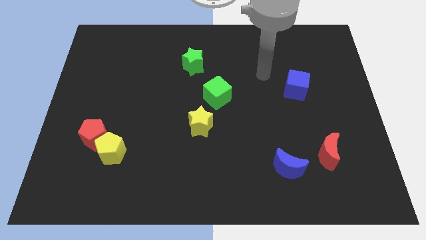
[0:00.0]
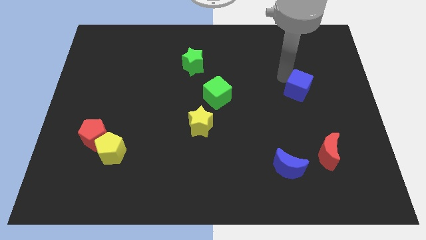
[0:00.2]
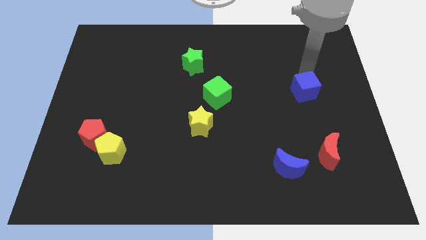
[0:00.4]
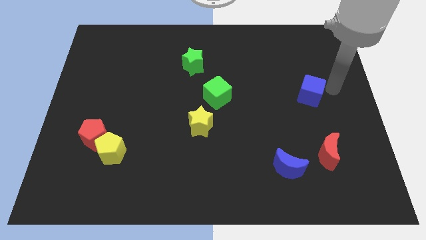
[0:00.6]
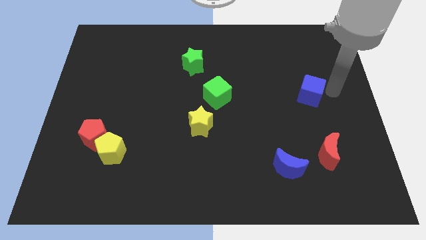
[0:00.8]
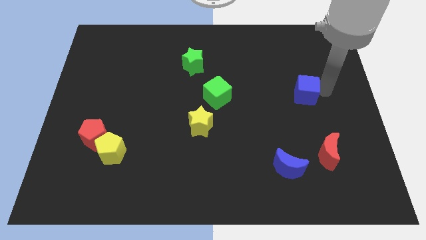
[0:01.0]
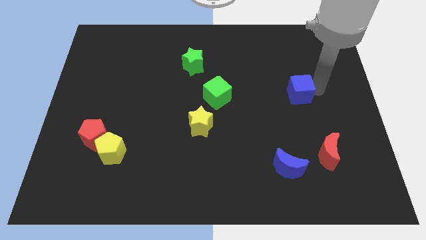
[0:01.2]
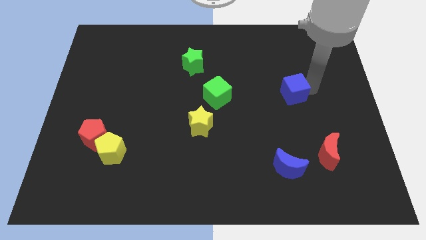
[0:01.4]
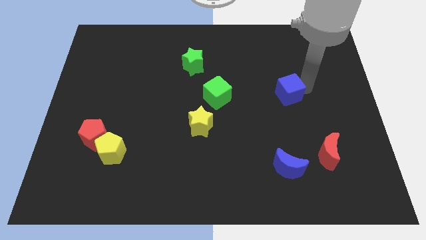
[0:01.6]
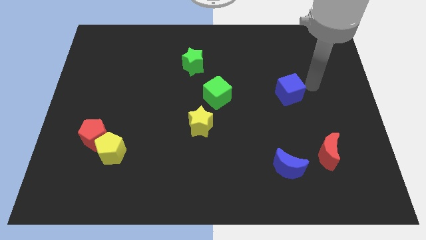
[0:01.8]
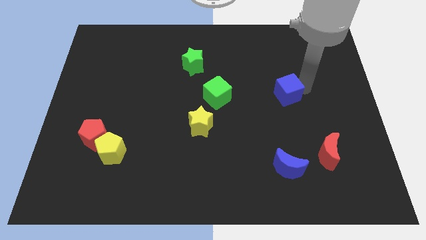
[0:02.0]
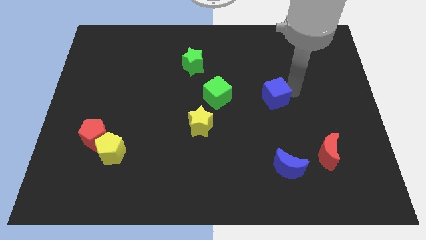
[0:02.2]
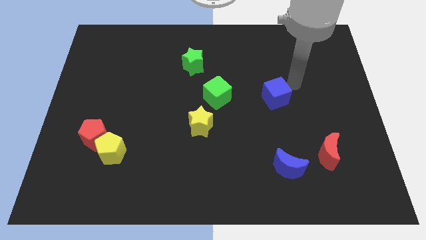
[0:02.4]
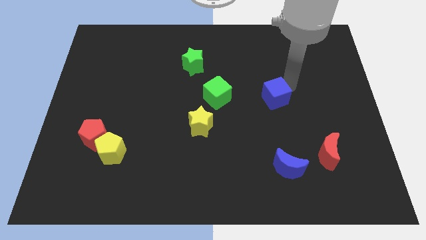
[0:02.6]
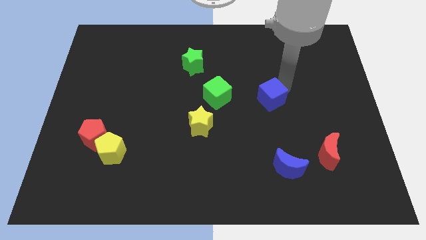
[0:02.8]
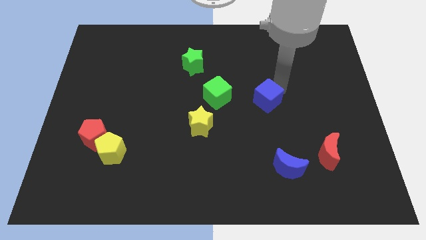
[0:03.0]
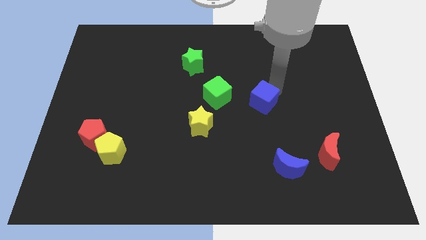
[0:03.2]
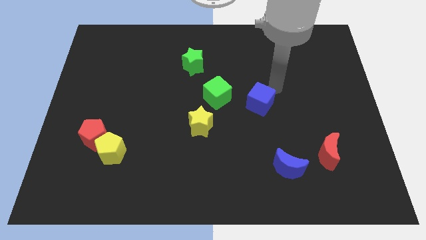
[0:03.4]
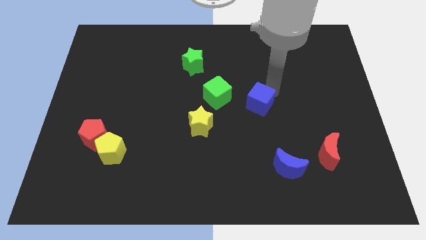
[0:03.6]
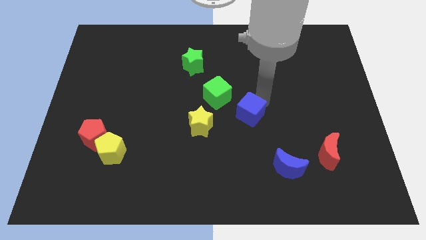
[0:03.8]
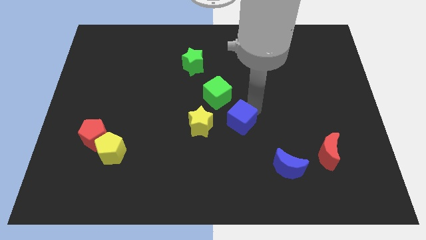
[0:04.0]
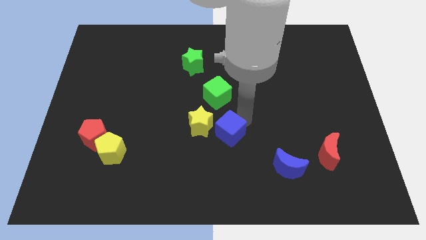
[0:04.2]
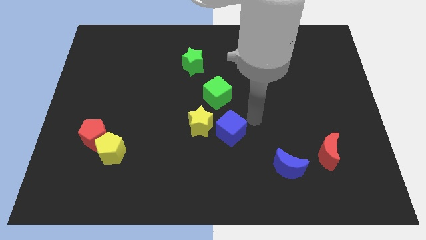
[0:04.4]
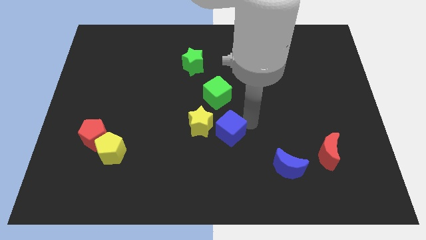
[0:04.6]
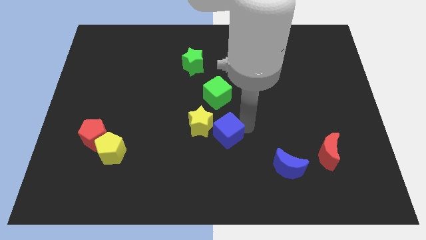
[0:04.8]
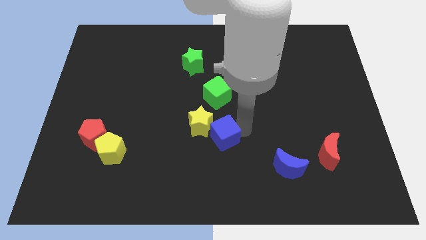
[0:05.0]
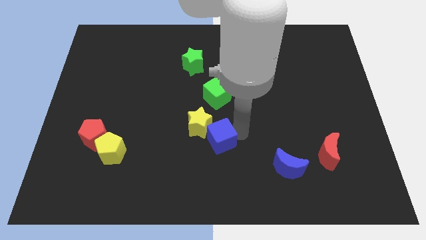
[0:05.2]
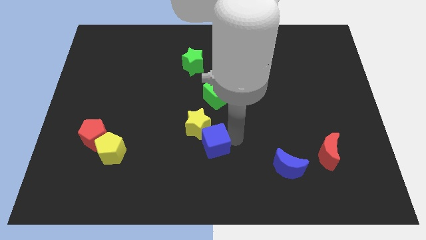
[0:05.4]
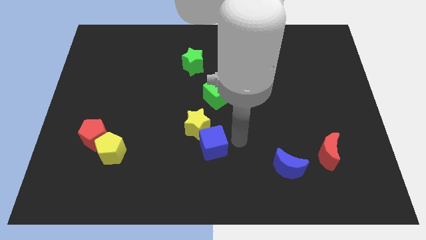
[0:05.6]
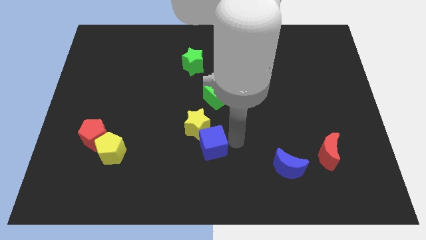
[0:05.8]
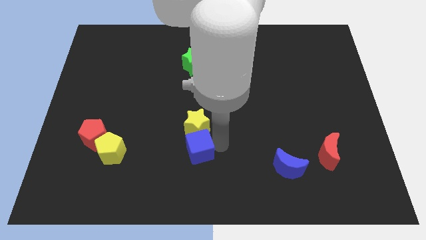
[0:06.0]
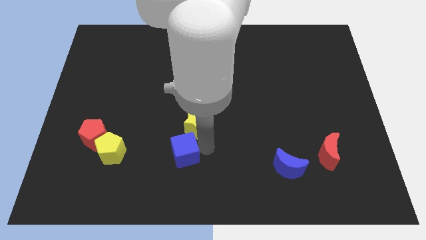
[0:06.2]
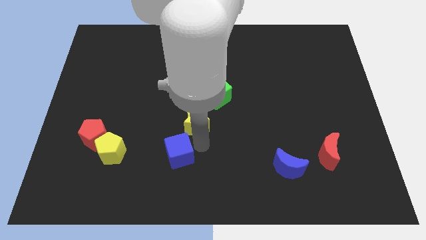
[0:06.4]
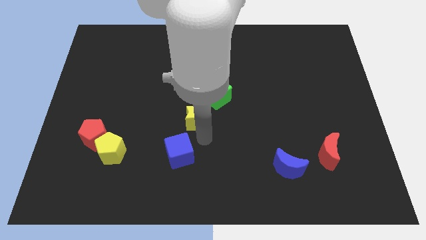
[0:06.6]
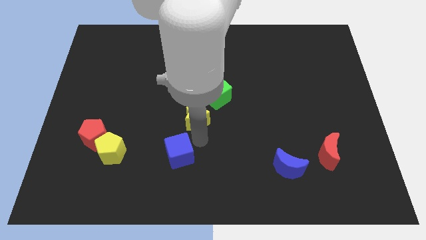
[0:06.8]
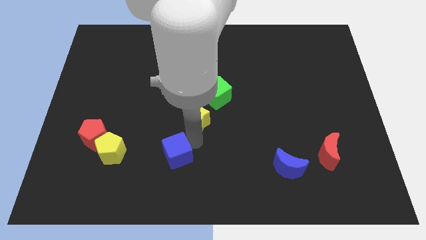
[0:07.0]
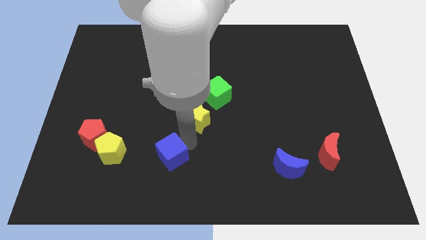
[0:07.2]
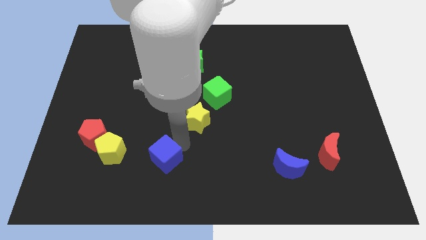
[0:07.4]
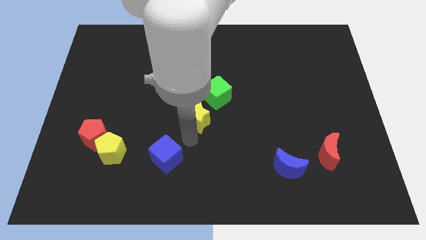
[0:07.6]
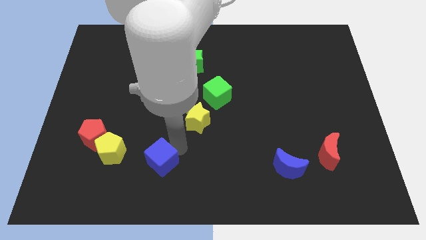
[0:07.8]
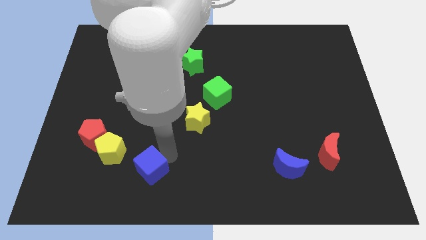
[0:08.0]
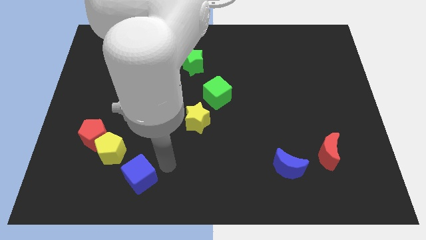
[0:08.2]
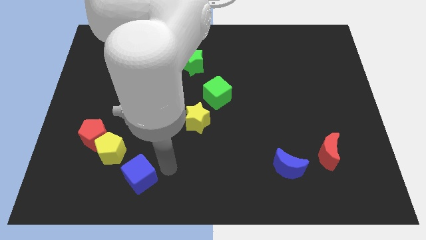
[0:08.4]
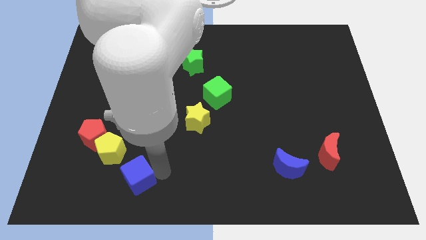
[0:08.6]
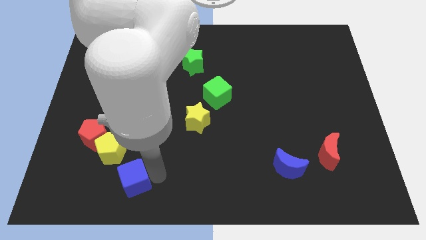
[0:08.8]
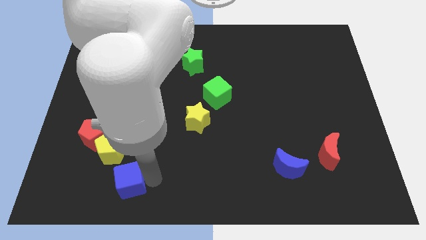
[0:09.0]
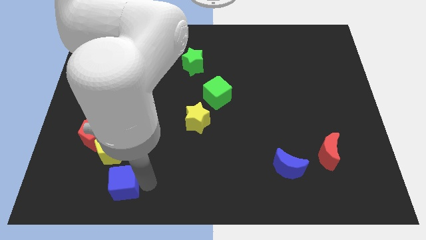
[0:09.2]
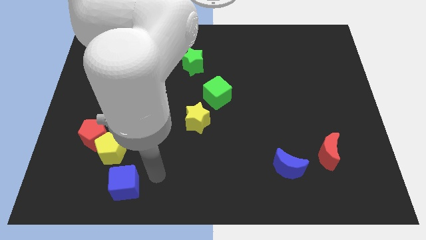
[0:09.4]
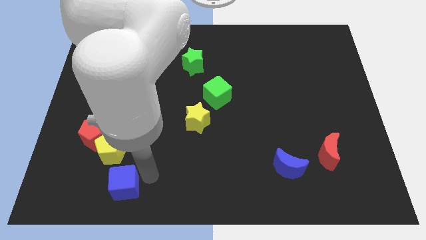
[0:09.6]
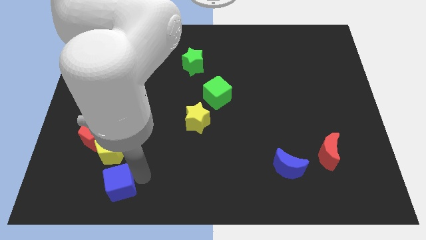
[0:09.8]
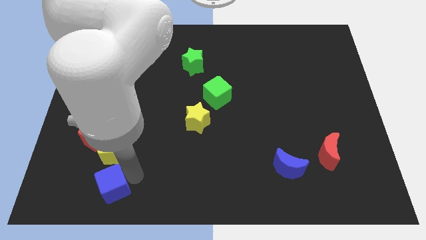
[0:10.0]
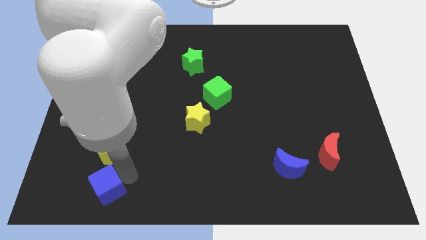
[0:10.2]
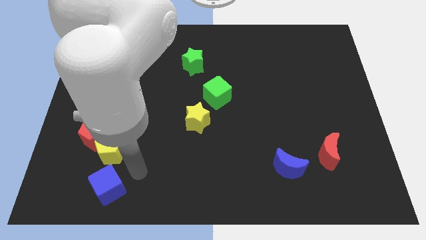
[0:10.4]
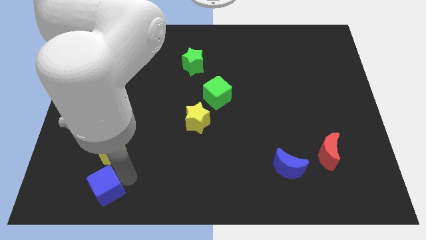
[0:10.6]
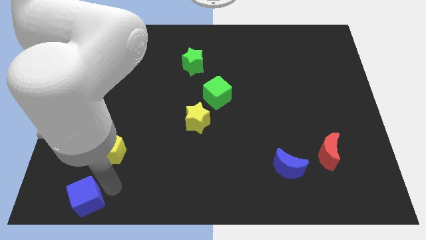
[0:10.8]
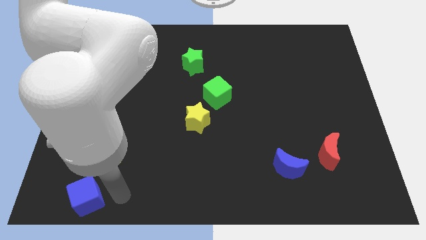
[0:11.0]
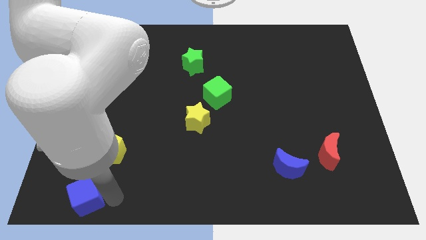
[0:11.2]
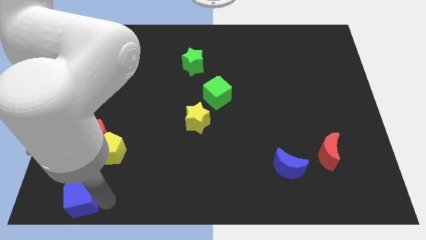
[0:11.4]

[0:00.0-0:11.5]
slide the blue cube to the bottom left of the board
